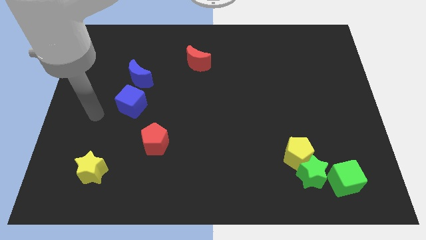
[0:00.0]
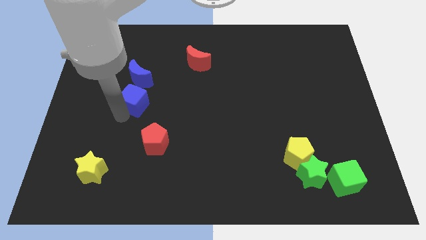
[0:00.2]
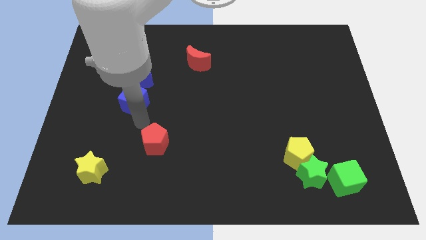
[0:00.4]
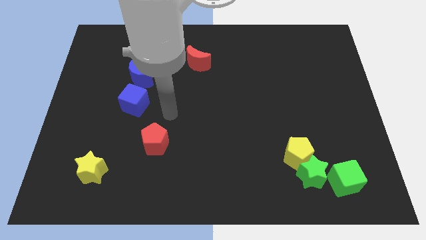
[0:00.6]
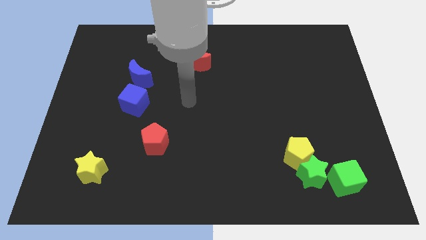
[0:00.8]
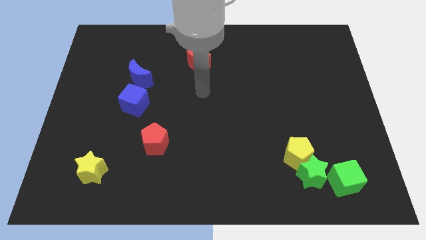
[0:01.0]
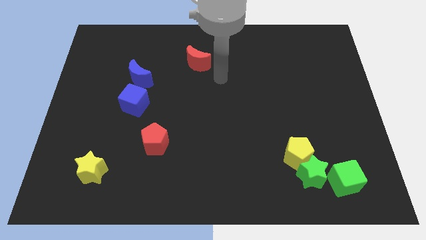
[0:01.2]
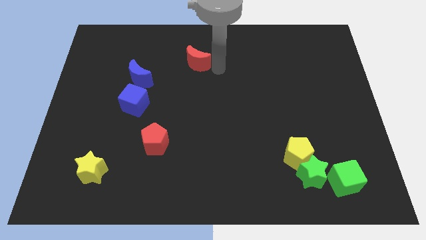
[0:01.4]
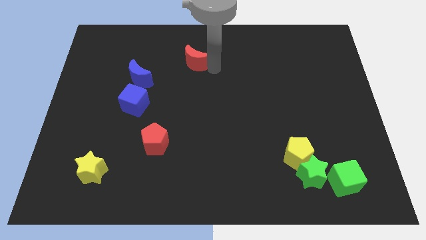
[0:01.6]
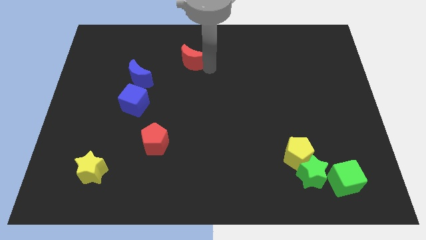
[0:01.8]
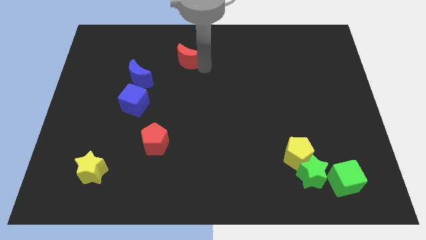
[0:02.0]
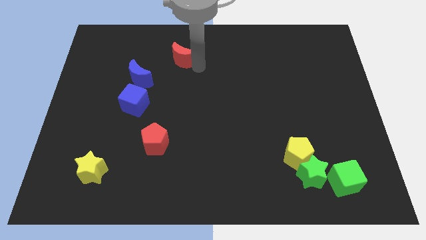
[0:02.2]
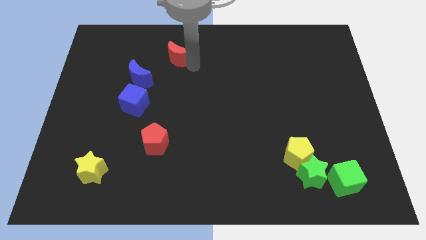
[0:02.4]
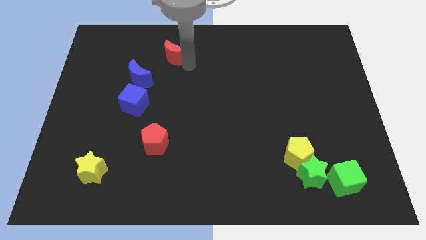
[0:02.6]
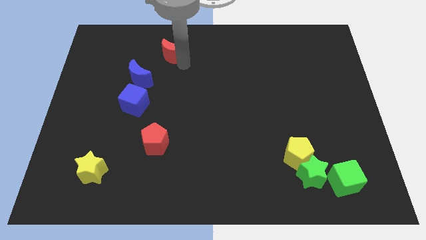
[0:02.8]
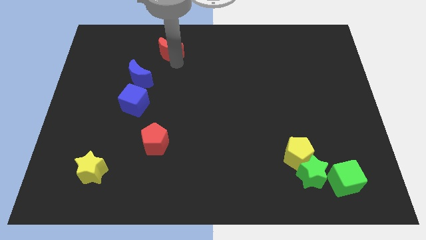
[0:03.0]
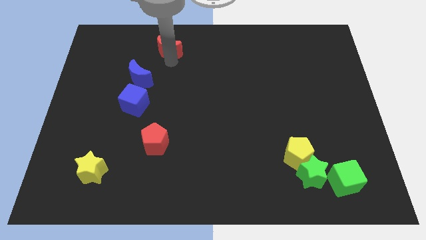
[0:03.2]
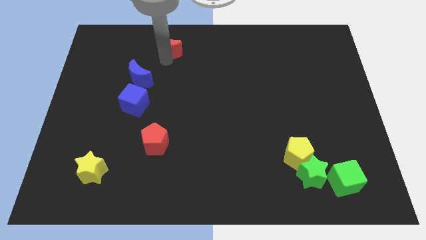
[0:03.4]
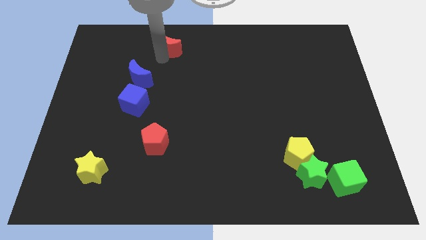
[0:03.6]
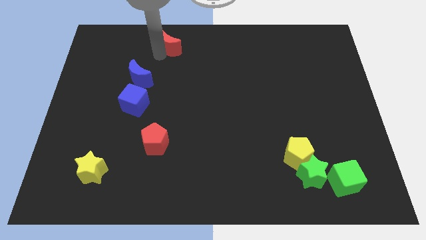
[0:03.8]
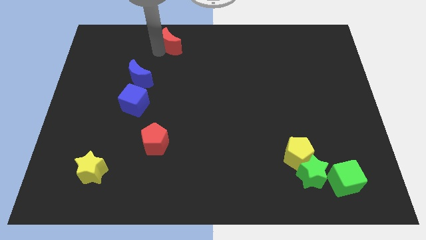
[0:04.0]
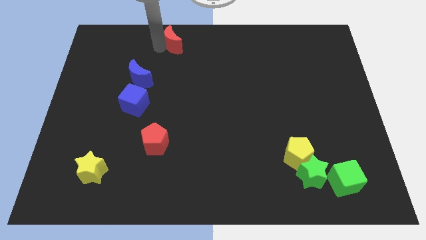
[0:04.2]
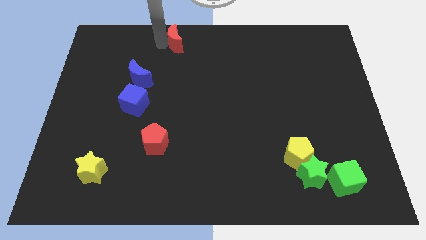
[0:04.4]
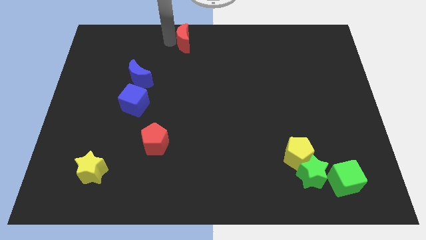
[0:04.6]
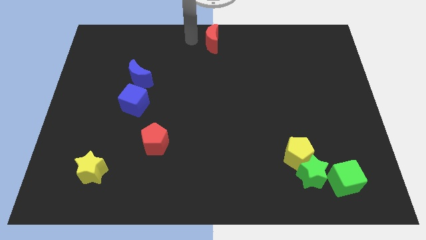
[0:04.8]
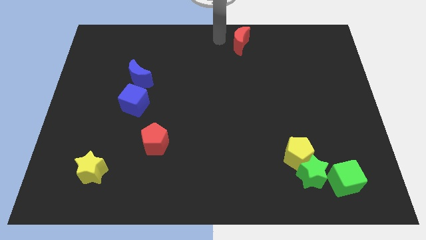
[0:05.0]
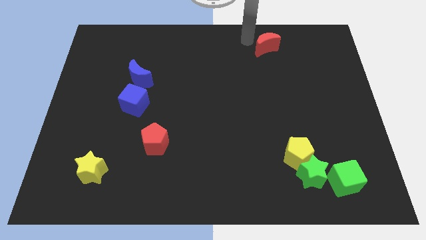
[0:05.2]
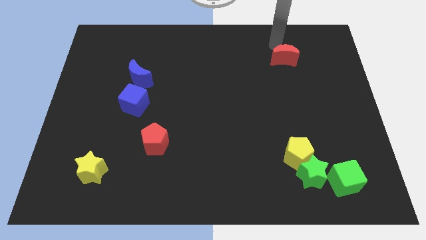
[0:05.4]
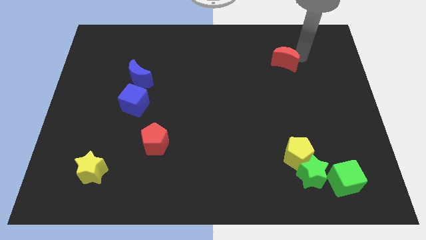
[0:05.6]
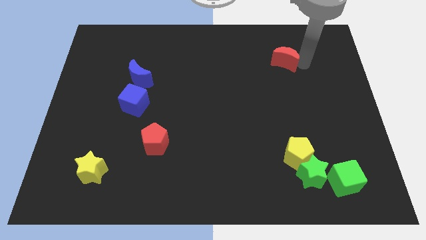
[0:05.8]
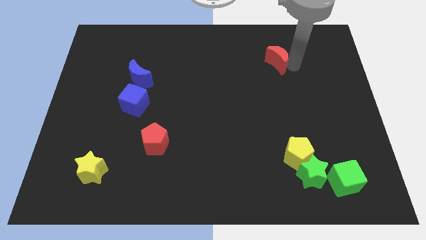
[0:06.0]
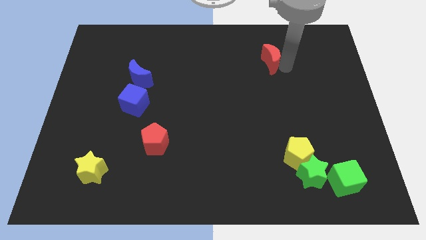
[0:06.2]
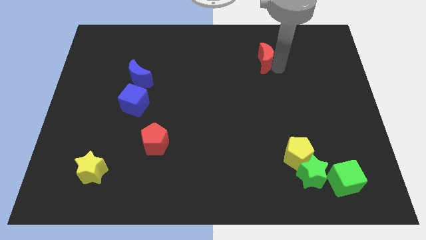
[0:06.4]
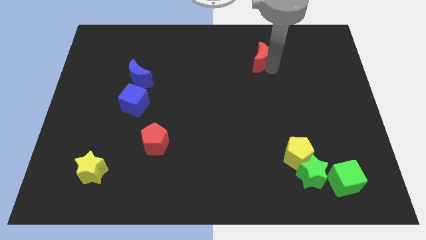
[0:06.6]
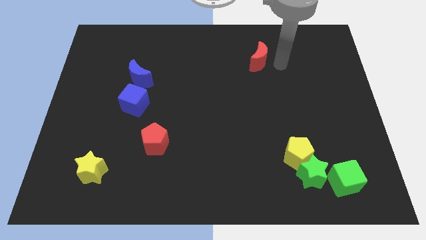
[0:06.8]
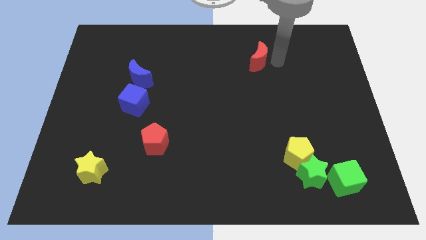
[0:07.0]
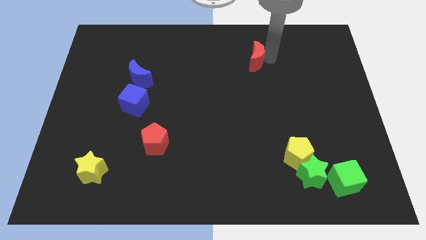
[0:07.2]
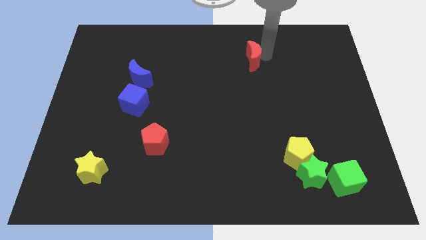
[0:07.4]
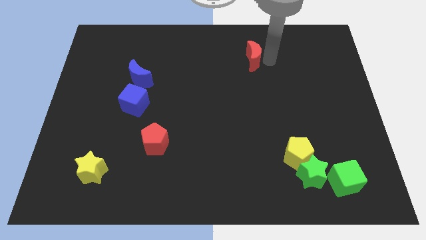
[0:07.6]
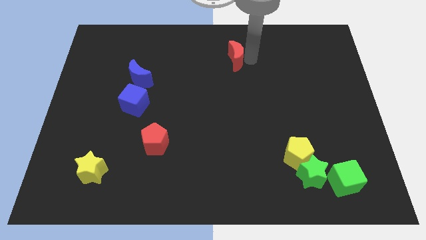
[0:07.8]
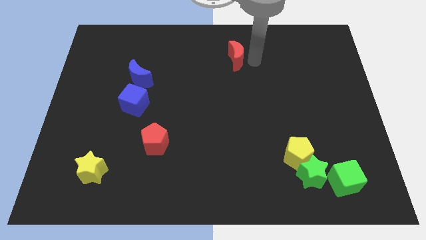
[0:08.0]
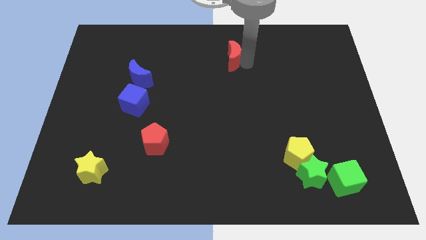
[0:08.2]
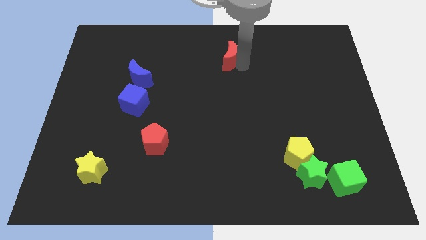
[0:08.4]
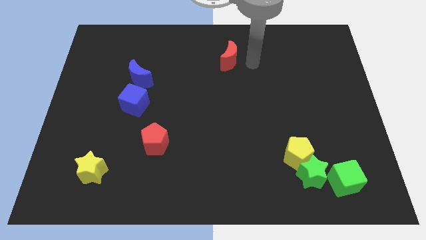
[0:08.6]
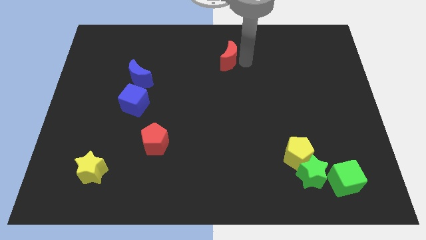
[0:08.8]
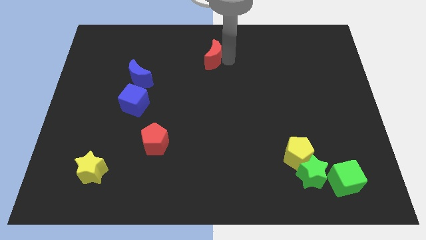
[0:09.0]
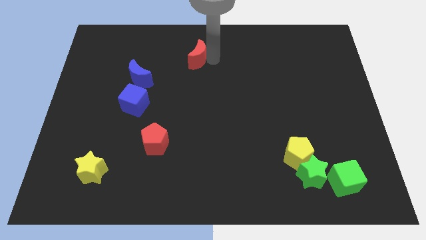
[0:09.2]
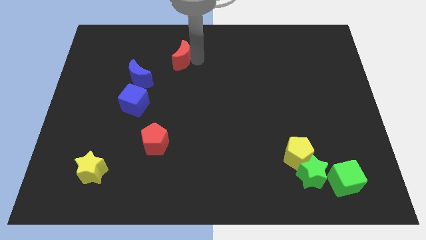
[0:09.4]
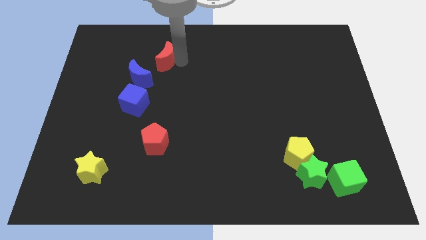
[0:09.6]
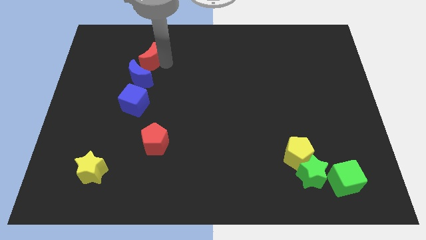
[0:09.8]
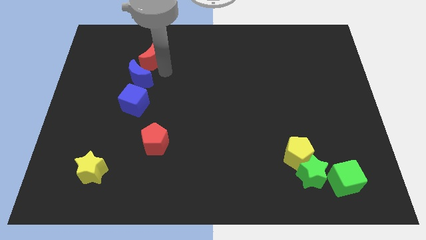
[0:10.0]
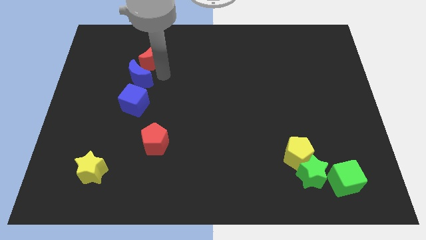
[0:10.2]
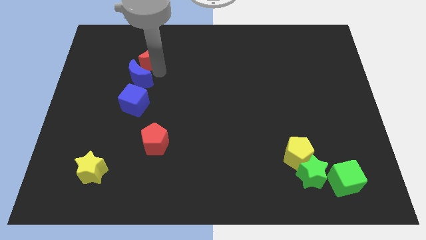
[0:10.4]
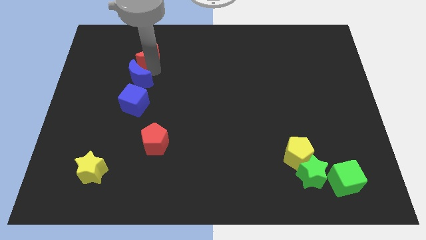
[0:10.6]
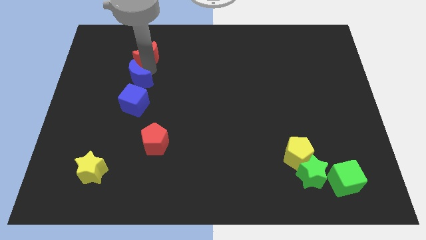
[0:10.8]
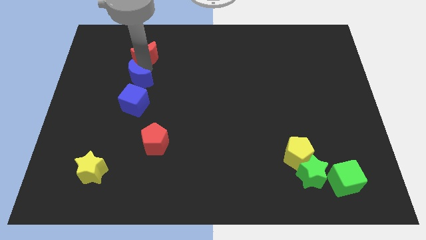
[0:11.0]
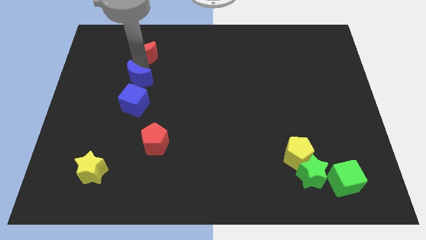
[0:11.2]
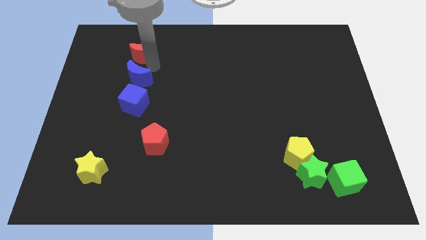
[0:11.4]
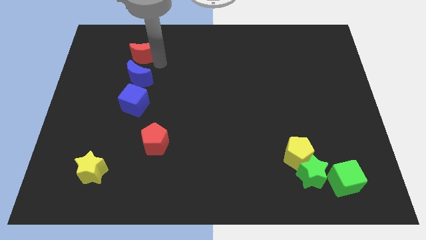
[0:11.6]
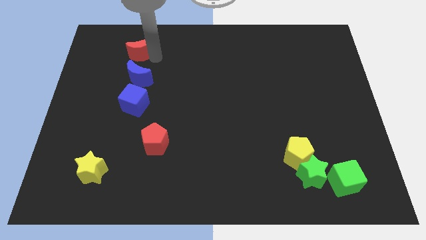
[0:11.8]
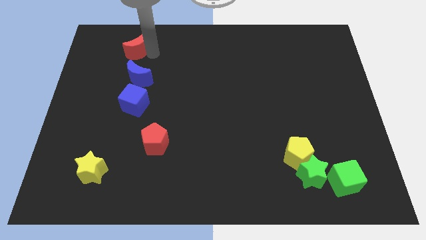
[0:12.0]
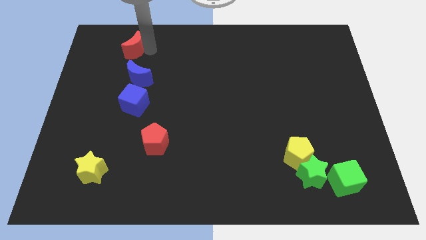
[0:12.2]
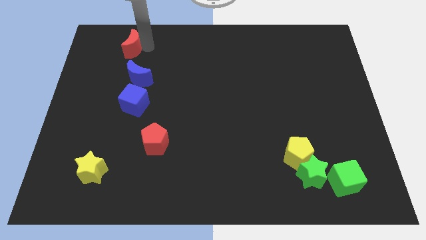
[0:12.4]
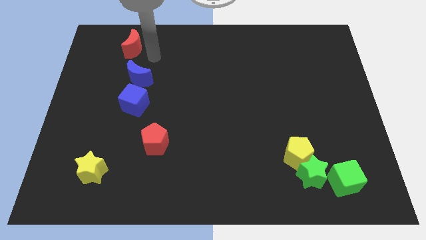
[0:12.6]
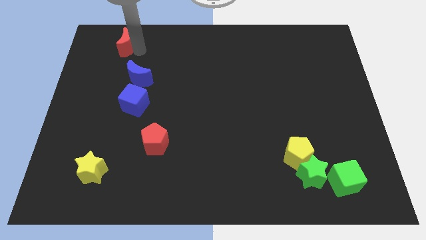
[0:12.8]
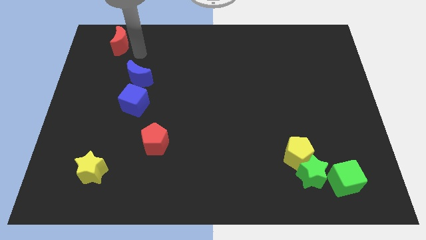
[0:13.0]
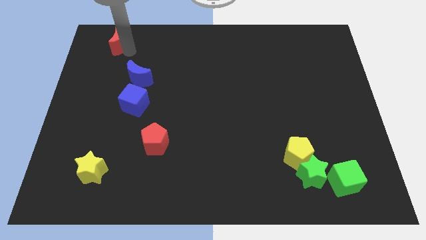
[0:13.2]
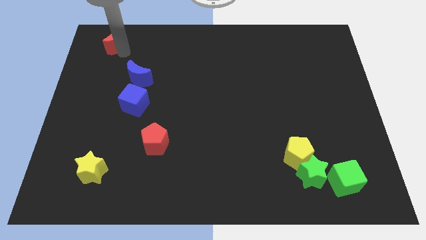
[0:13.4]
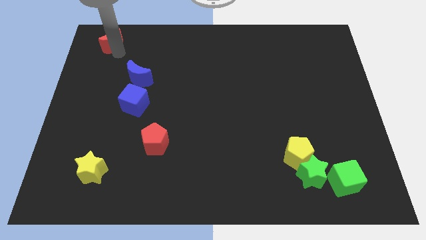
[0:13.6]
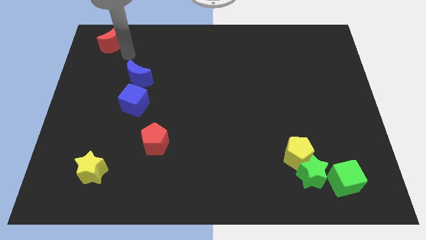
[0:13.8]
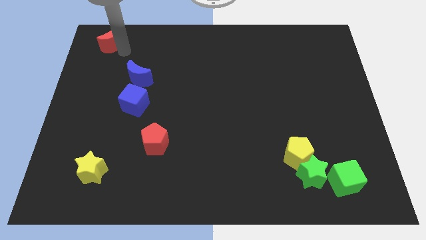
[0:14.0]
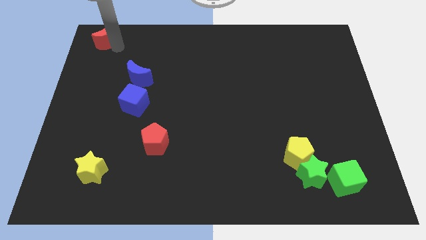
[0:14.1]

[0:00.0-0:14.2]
move the red moon to the top left corner
